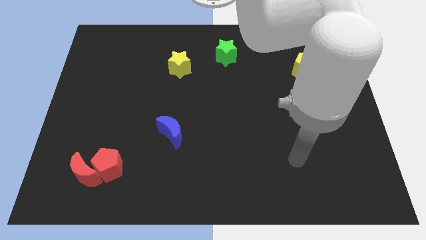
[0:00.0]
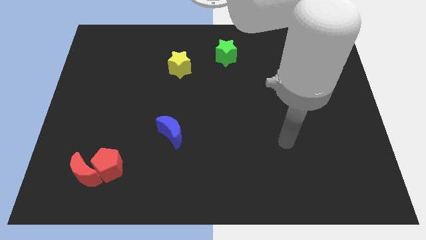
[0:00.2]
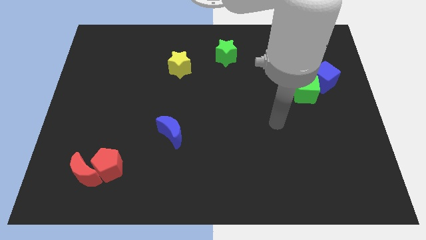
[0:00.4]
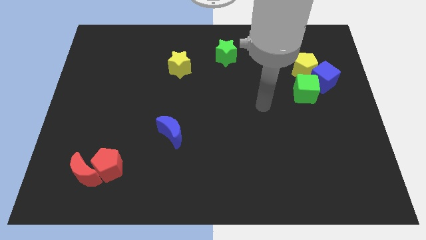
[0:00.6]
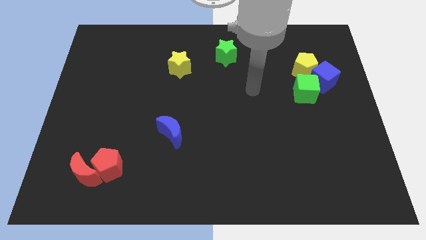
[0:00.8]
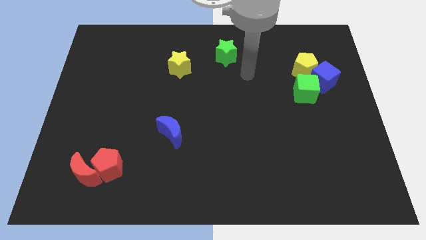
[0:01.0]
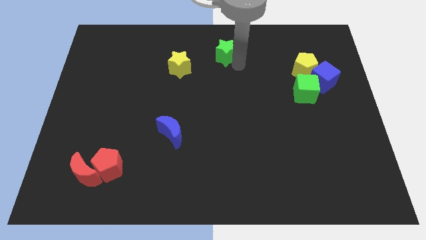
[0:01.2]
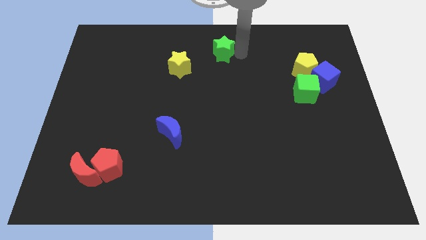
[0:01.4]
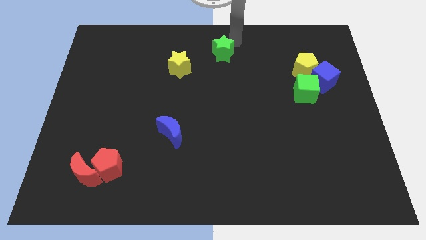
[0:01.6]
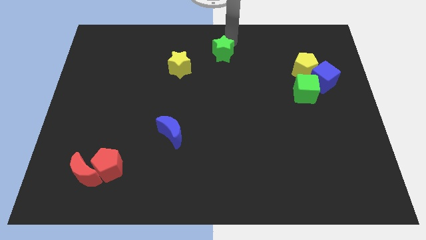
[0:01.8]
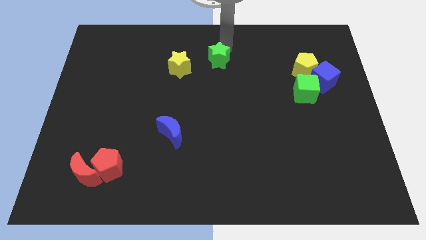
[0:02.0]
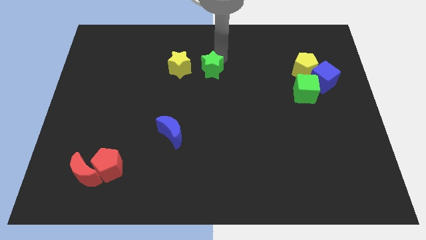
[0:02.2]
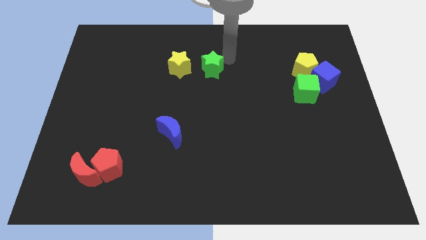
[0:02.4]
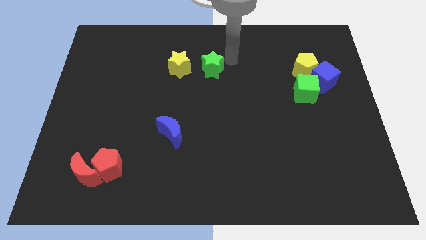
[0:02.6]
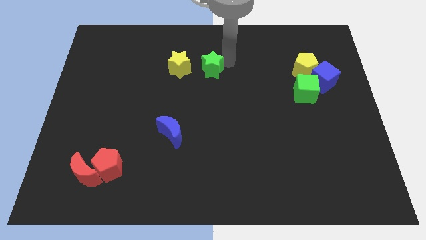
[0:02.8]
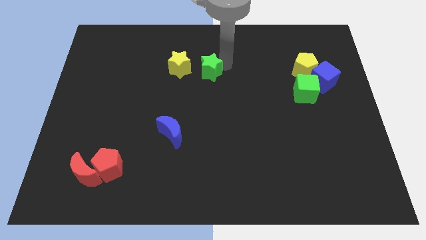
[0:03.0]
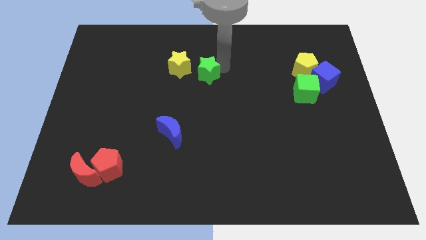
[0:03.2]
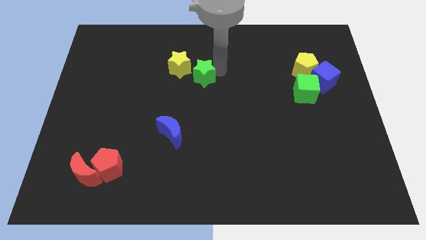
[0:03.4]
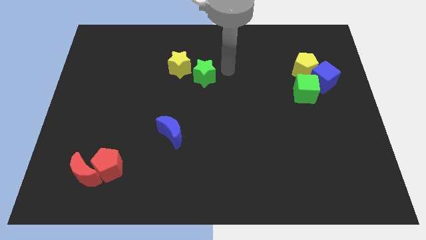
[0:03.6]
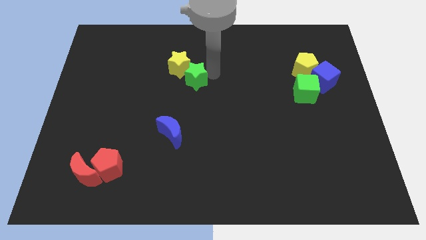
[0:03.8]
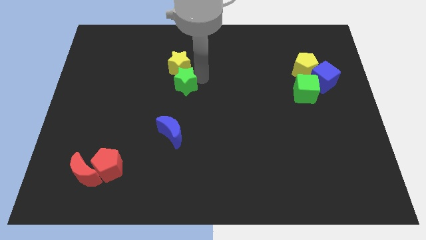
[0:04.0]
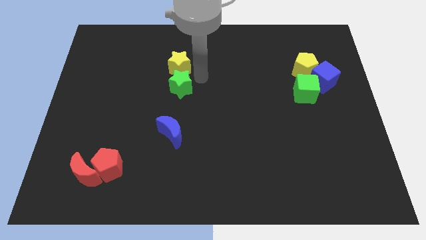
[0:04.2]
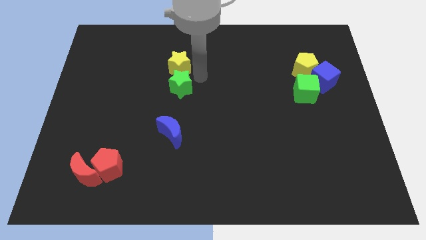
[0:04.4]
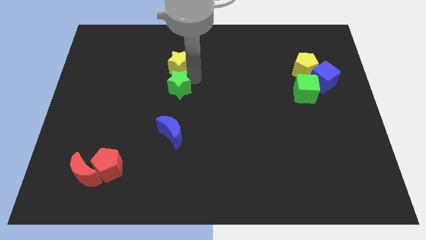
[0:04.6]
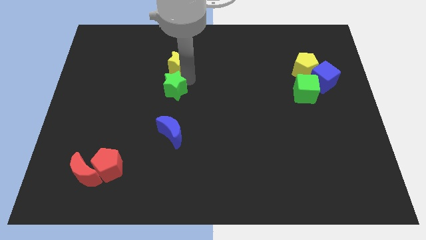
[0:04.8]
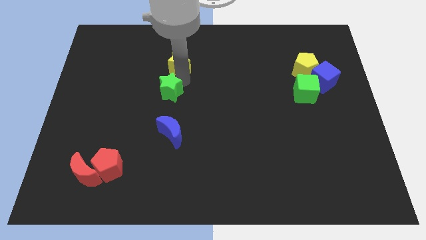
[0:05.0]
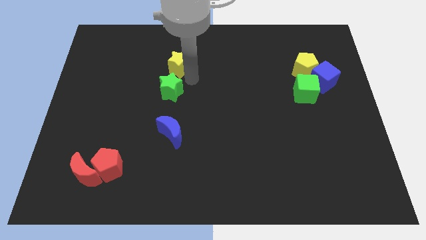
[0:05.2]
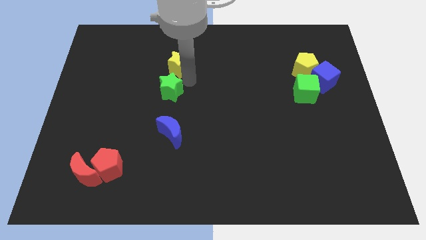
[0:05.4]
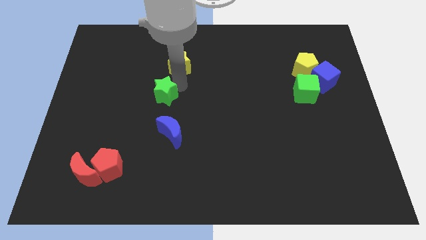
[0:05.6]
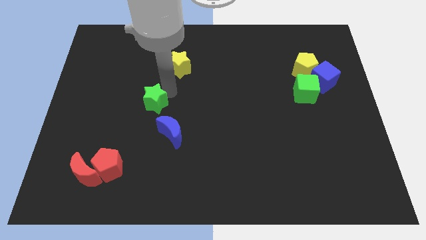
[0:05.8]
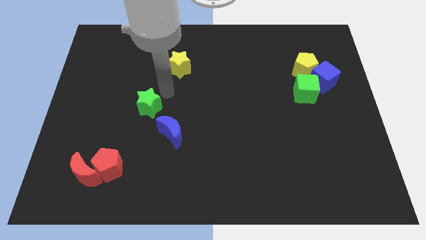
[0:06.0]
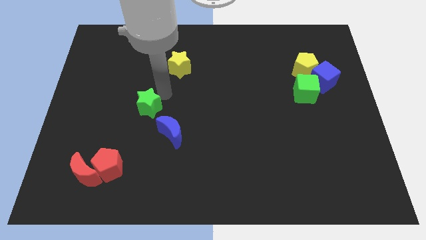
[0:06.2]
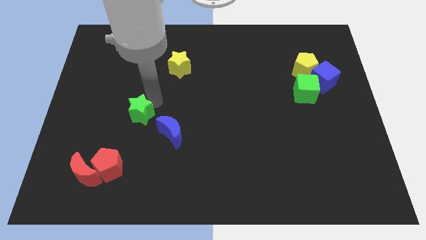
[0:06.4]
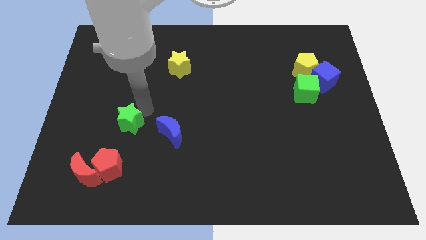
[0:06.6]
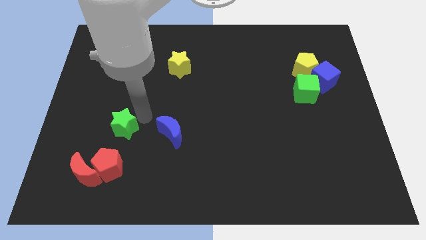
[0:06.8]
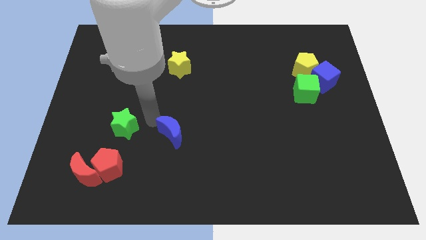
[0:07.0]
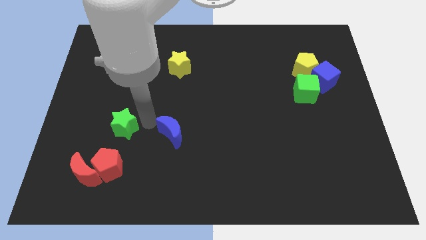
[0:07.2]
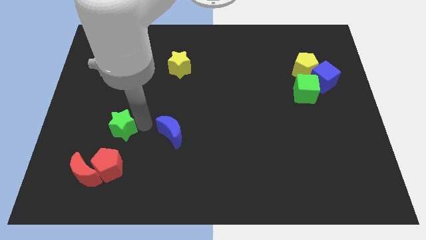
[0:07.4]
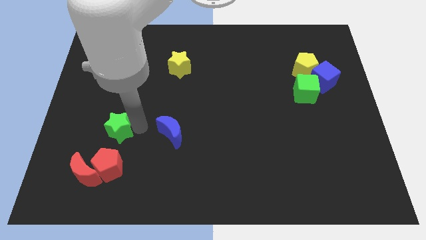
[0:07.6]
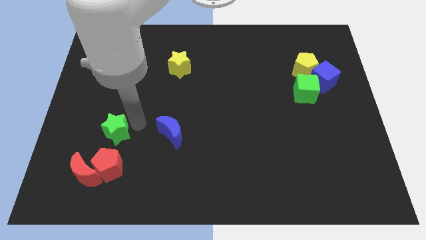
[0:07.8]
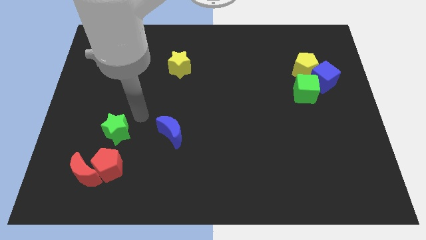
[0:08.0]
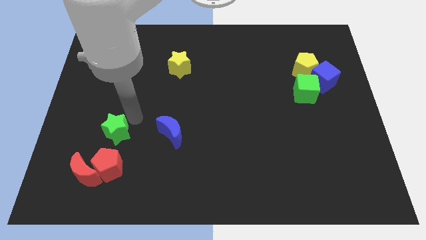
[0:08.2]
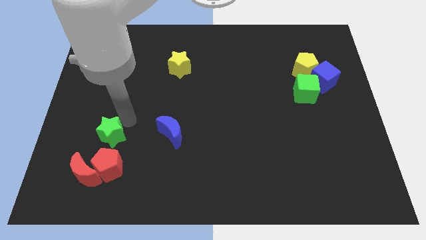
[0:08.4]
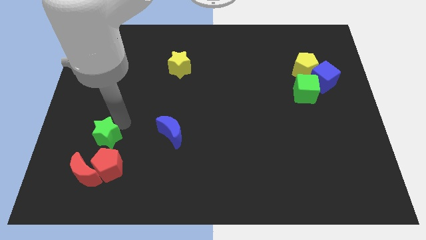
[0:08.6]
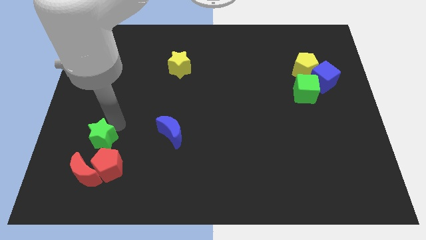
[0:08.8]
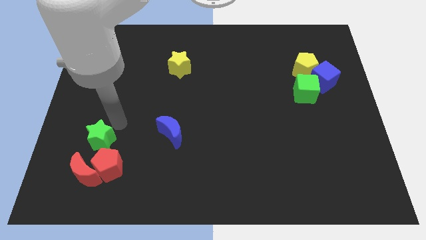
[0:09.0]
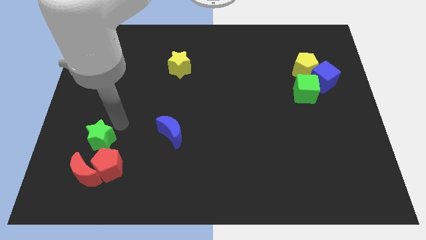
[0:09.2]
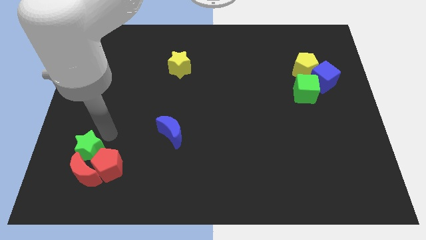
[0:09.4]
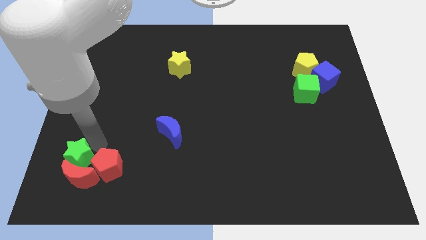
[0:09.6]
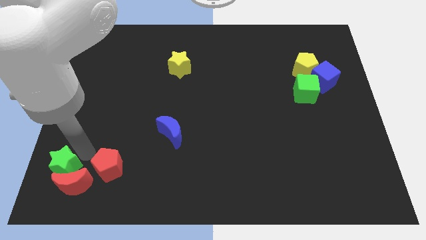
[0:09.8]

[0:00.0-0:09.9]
put the green star to the bottom left of the board
